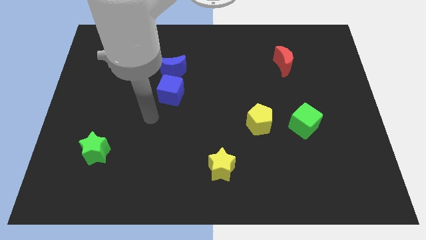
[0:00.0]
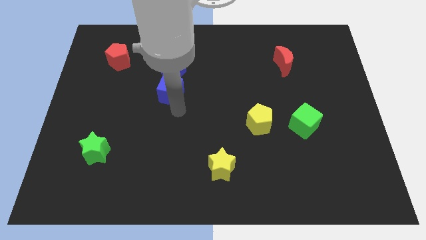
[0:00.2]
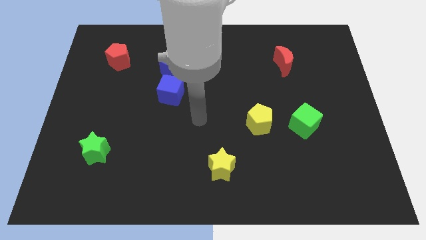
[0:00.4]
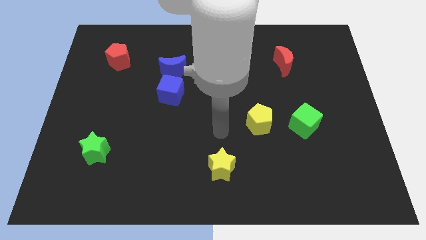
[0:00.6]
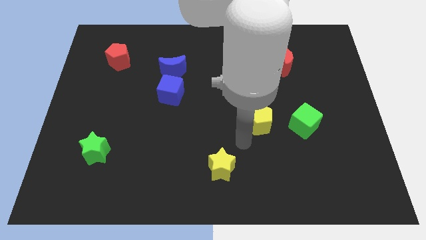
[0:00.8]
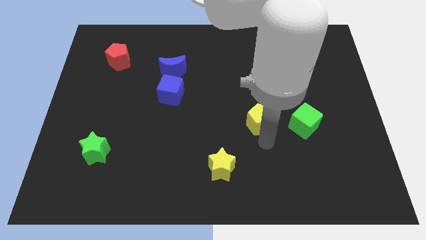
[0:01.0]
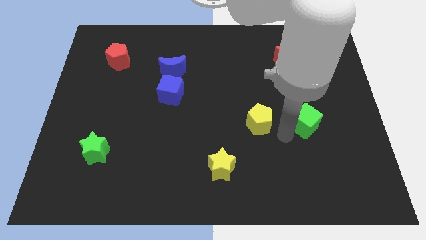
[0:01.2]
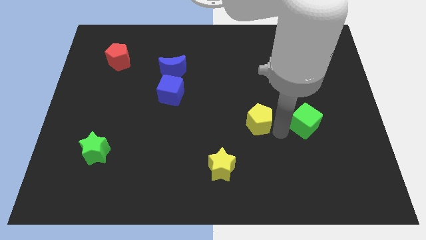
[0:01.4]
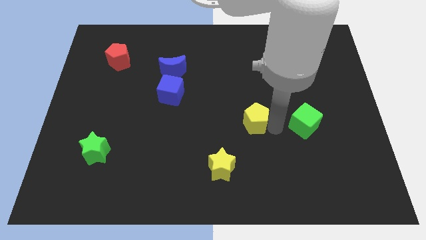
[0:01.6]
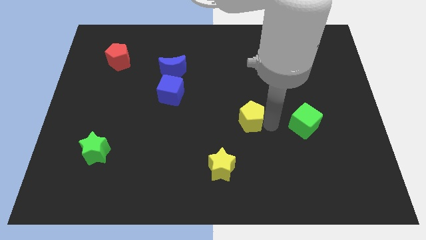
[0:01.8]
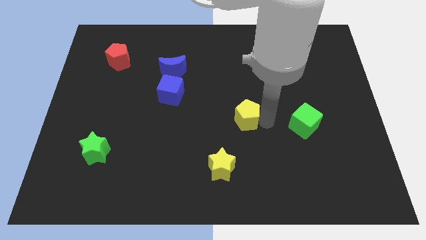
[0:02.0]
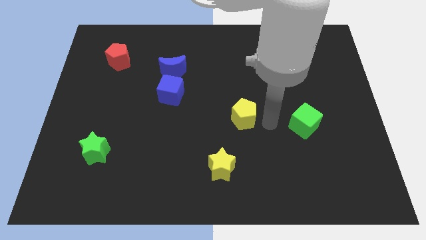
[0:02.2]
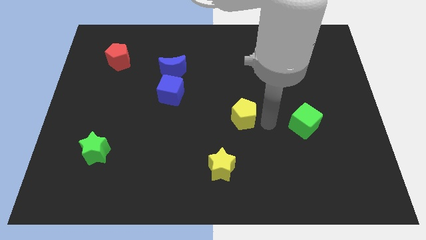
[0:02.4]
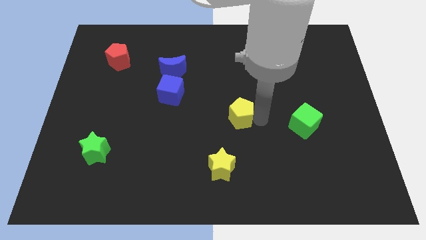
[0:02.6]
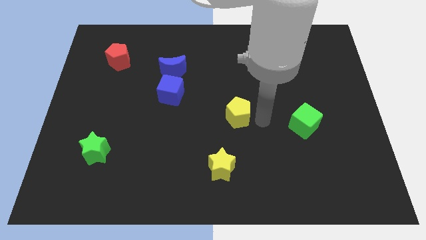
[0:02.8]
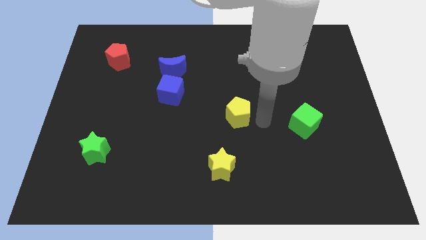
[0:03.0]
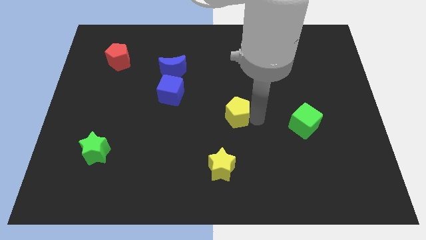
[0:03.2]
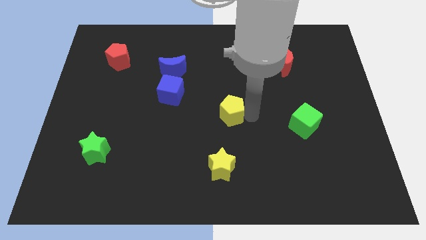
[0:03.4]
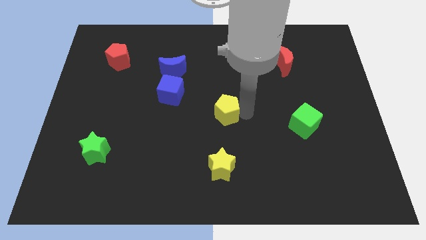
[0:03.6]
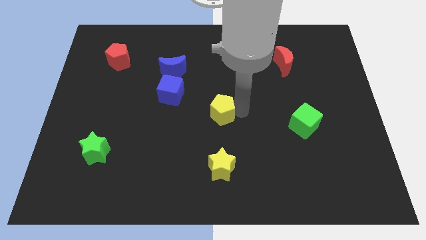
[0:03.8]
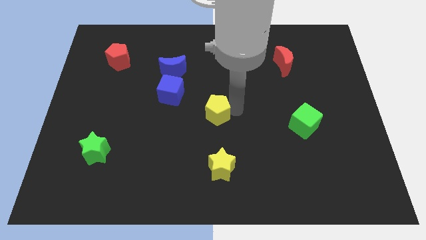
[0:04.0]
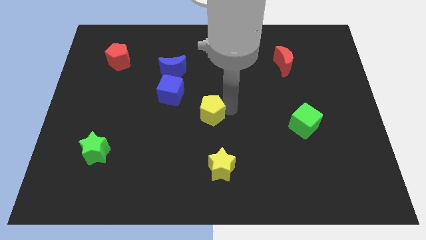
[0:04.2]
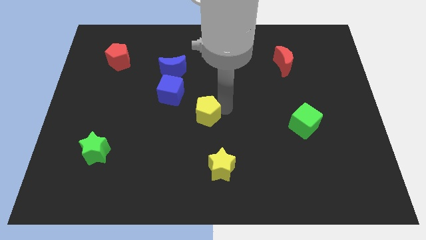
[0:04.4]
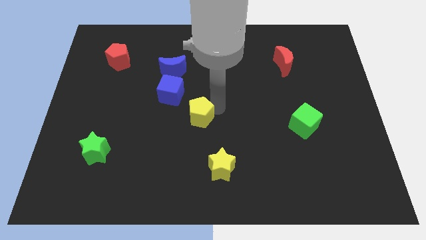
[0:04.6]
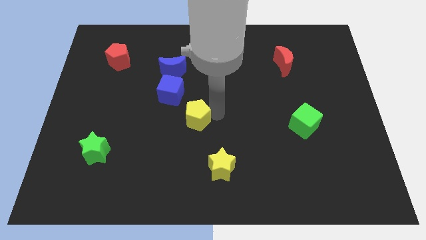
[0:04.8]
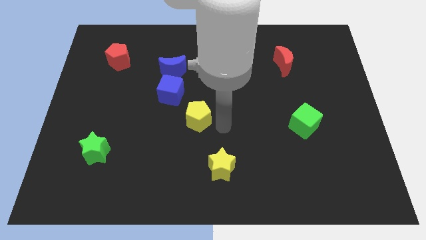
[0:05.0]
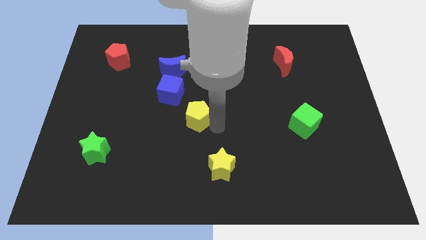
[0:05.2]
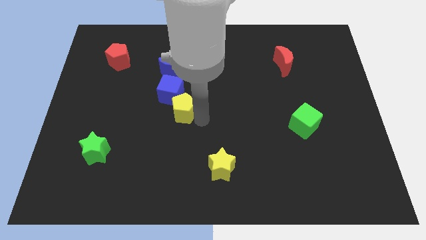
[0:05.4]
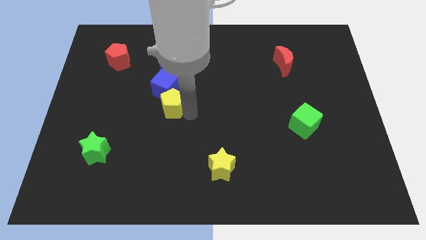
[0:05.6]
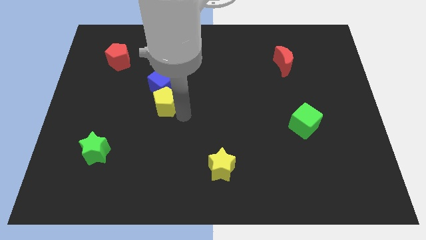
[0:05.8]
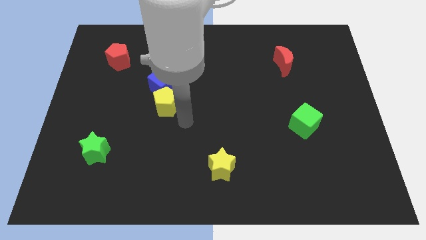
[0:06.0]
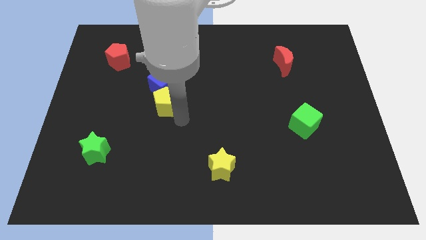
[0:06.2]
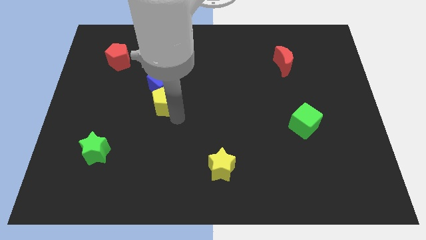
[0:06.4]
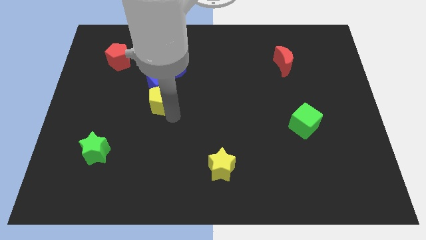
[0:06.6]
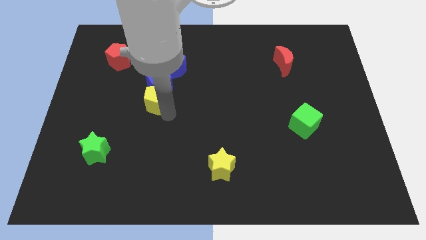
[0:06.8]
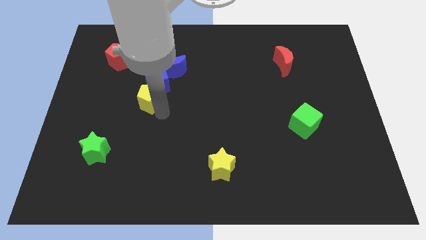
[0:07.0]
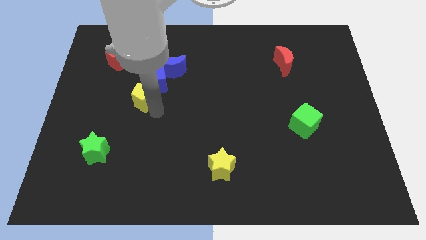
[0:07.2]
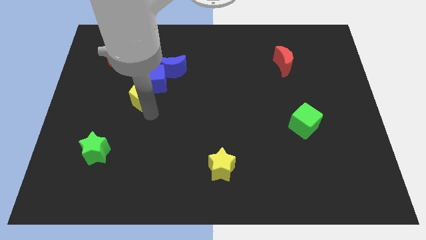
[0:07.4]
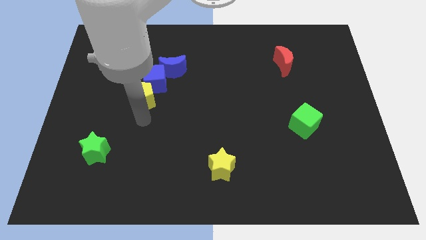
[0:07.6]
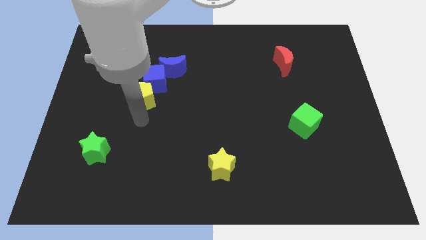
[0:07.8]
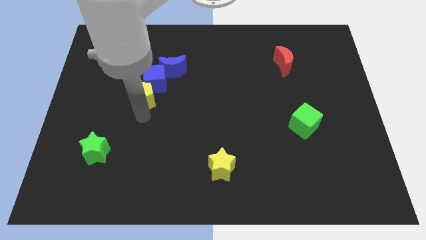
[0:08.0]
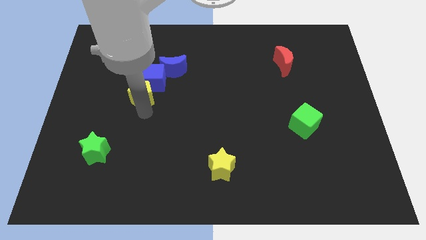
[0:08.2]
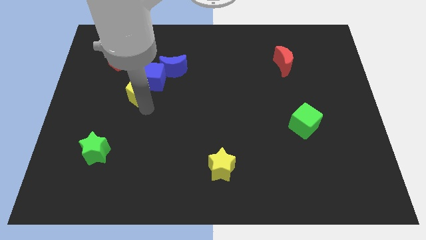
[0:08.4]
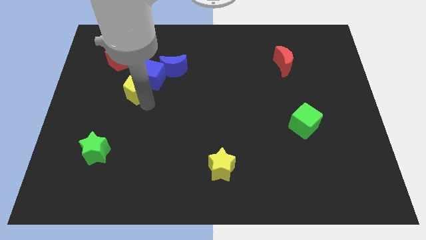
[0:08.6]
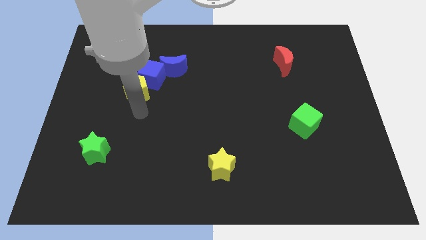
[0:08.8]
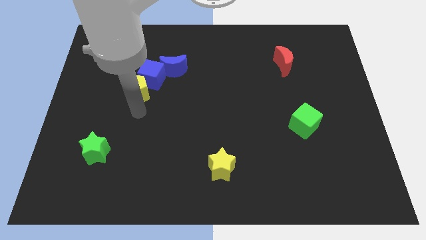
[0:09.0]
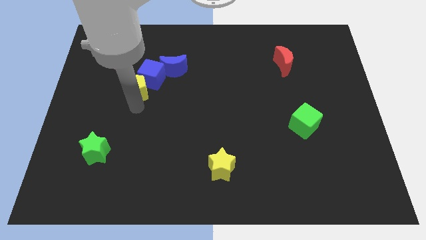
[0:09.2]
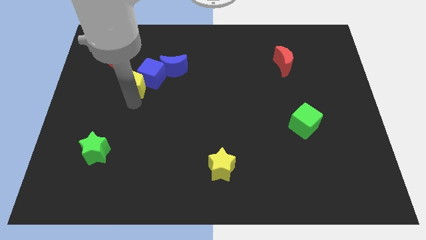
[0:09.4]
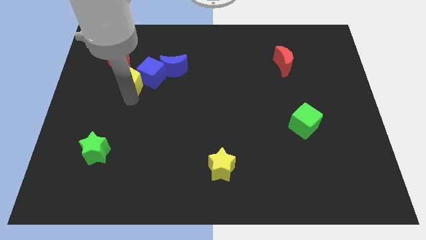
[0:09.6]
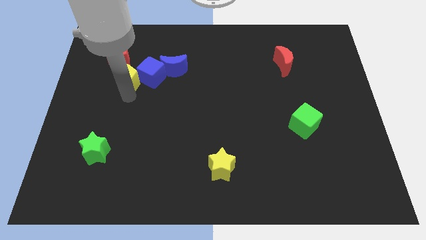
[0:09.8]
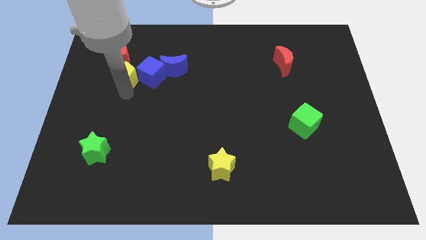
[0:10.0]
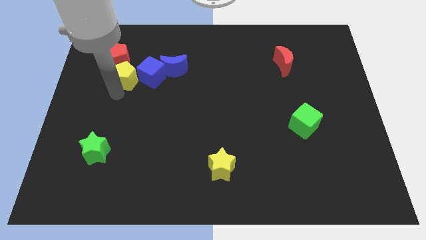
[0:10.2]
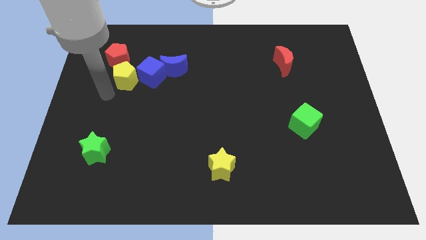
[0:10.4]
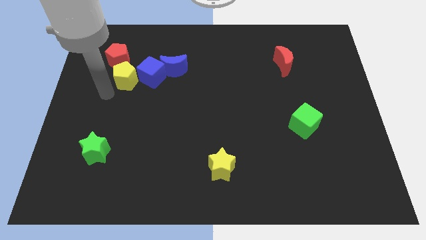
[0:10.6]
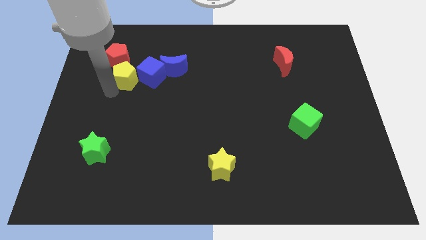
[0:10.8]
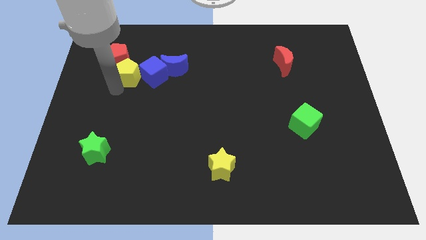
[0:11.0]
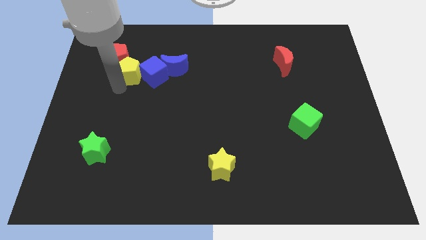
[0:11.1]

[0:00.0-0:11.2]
push the yellow pentagon to the red pentagon

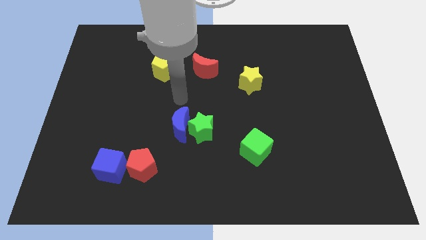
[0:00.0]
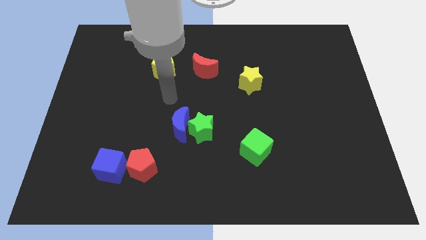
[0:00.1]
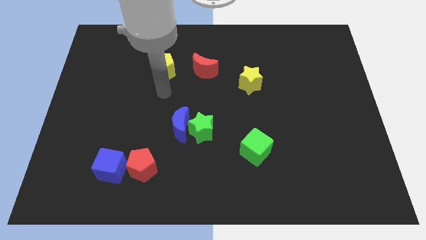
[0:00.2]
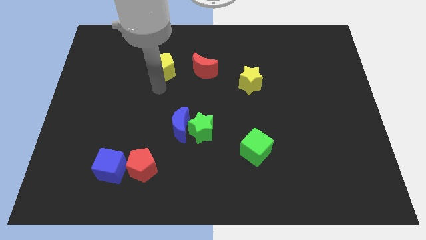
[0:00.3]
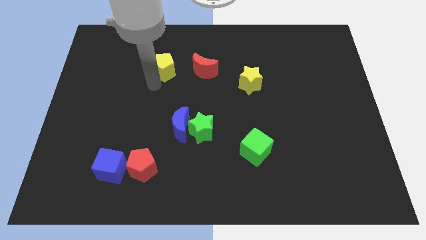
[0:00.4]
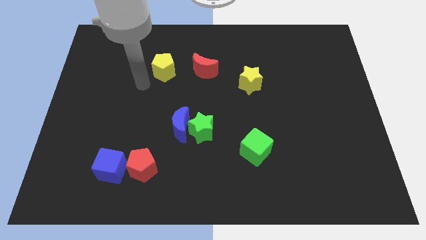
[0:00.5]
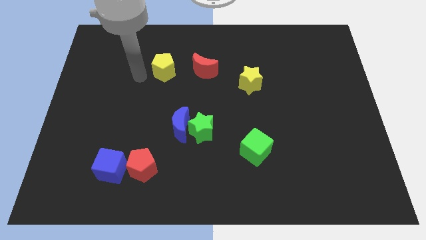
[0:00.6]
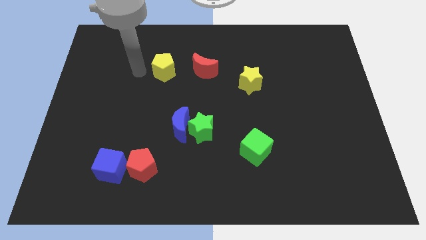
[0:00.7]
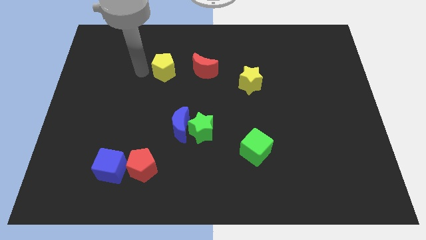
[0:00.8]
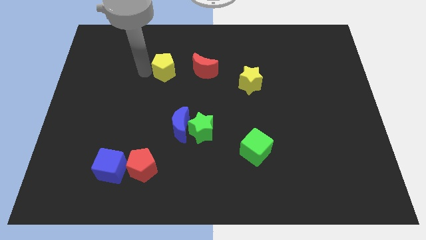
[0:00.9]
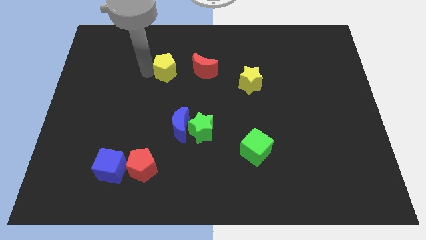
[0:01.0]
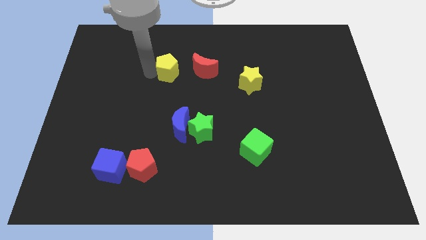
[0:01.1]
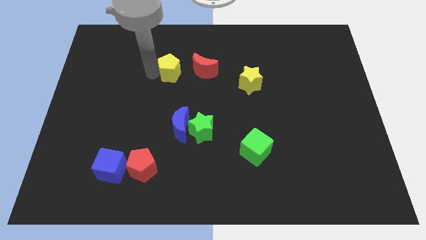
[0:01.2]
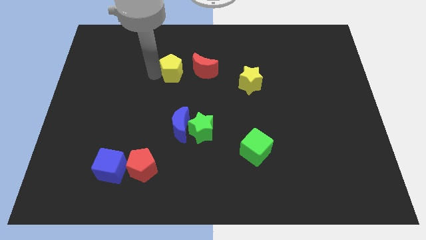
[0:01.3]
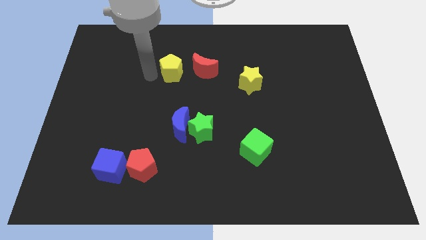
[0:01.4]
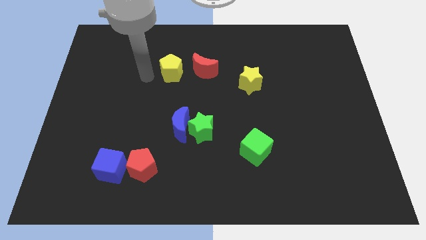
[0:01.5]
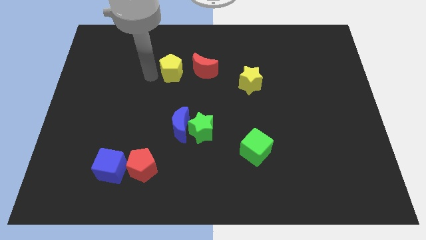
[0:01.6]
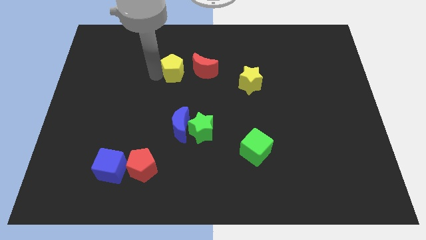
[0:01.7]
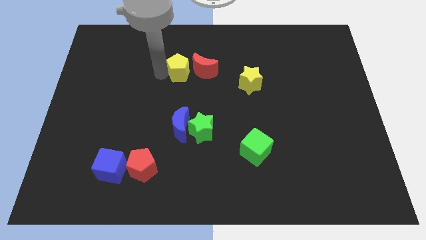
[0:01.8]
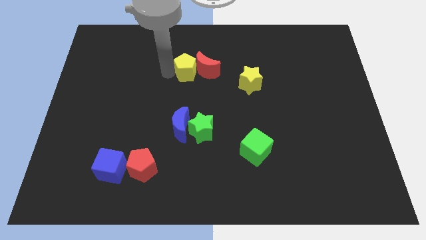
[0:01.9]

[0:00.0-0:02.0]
put the yellow pentagon next to the red moon
